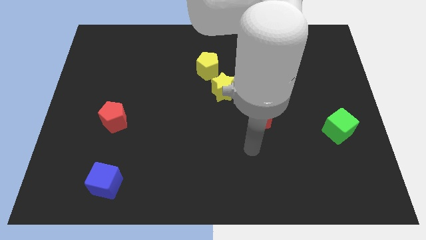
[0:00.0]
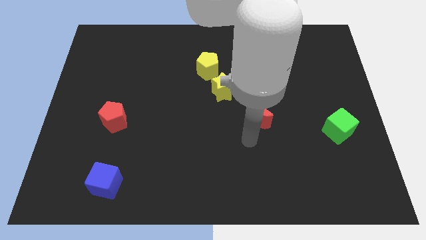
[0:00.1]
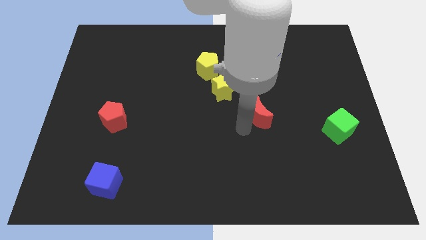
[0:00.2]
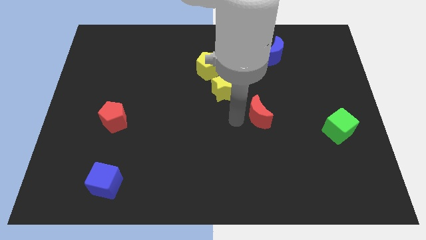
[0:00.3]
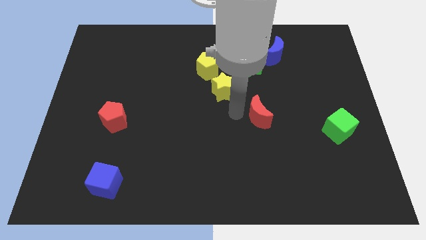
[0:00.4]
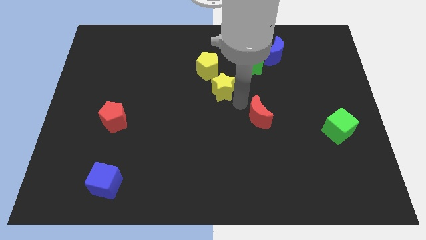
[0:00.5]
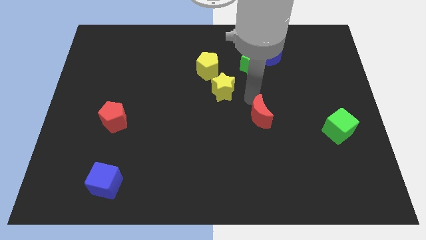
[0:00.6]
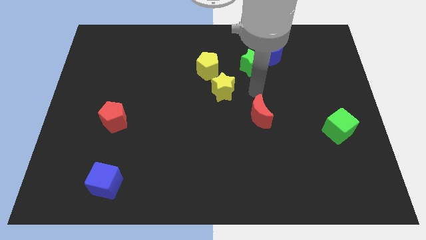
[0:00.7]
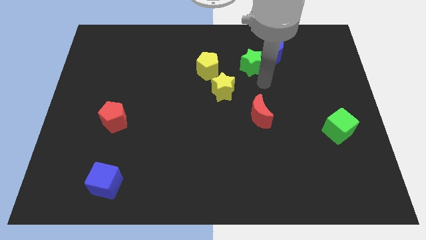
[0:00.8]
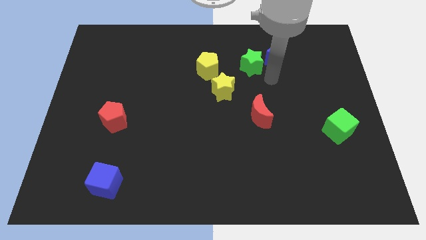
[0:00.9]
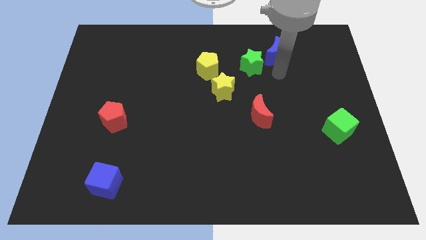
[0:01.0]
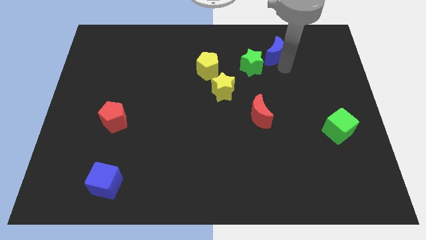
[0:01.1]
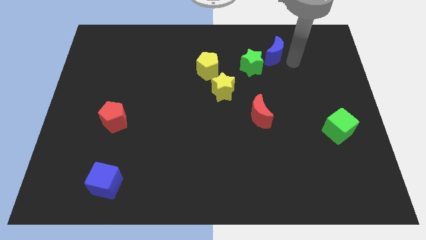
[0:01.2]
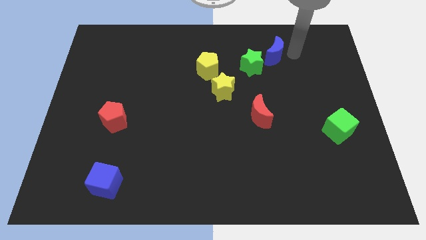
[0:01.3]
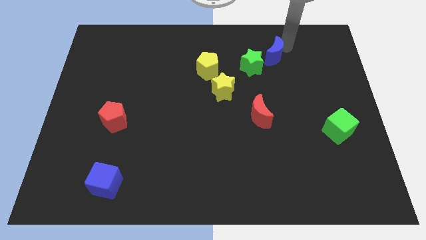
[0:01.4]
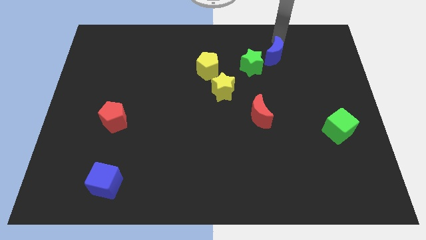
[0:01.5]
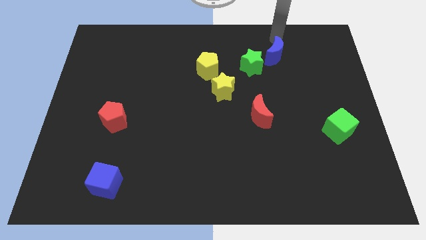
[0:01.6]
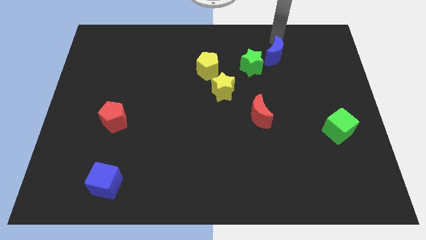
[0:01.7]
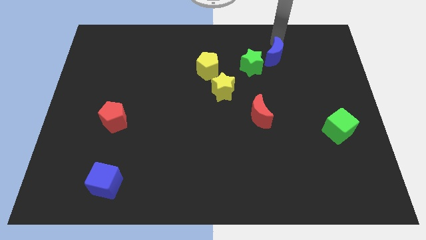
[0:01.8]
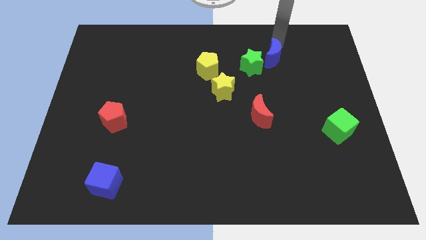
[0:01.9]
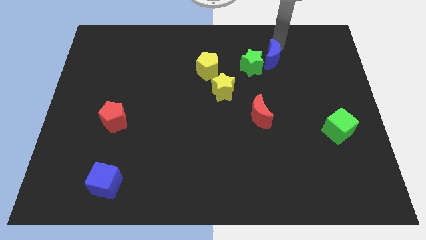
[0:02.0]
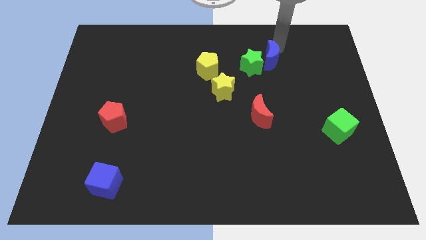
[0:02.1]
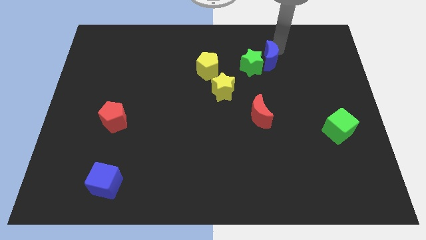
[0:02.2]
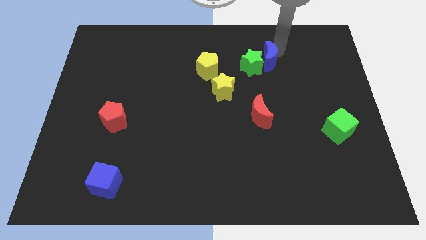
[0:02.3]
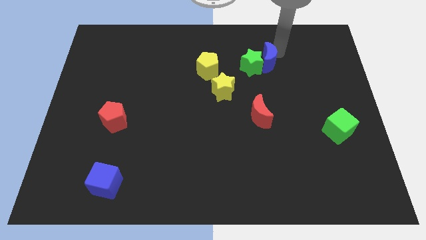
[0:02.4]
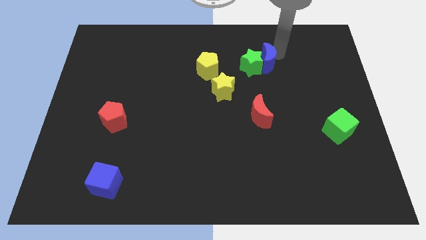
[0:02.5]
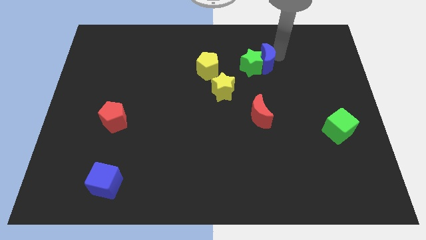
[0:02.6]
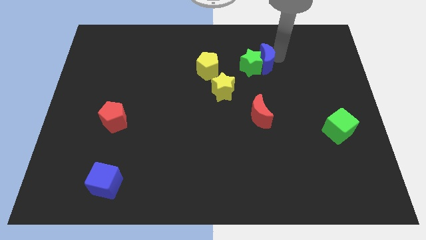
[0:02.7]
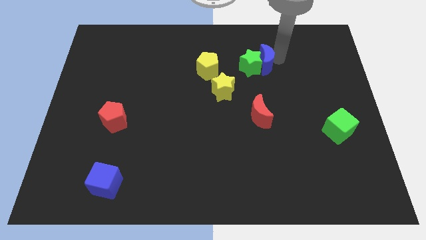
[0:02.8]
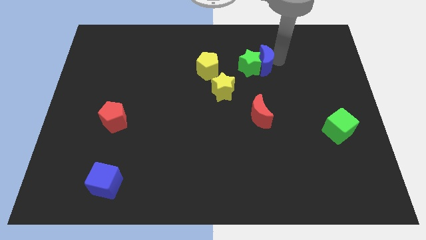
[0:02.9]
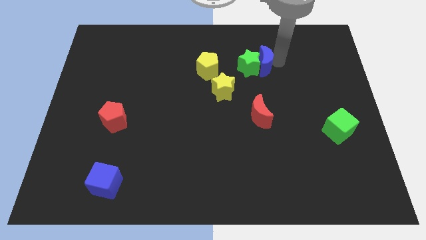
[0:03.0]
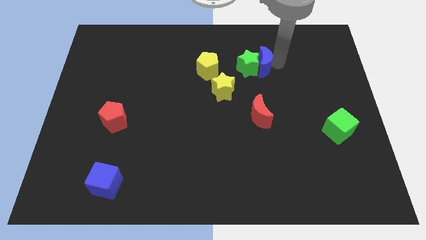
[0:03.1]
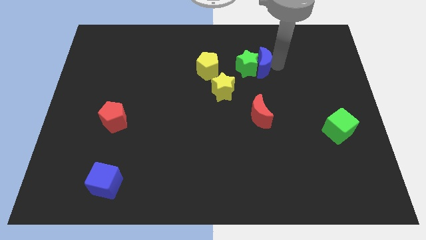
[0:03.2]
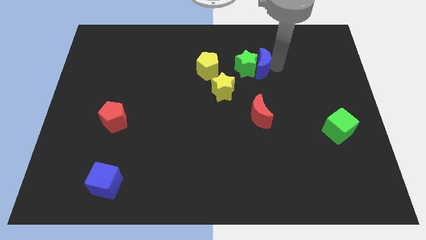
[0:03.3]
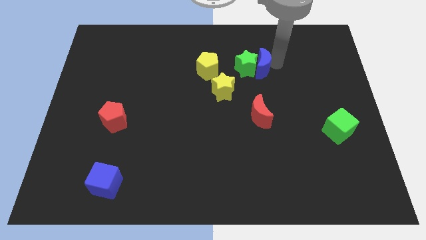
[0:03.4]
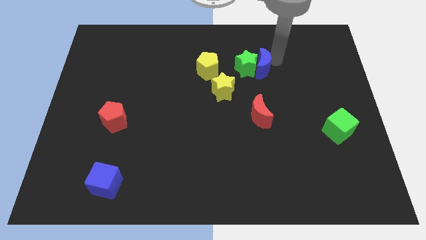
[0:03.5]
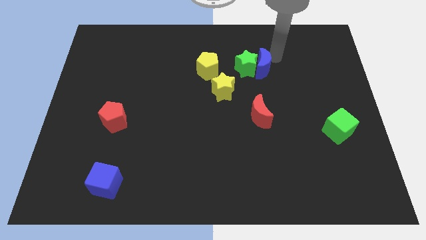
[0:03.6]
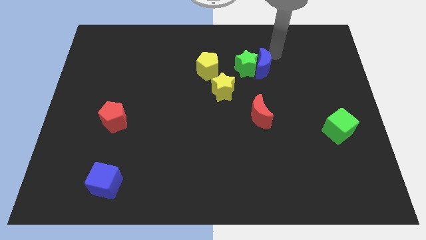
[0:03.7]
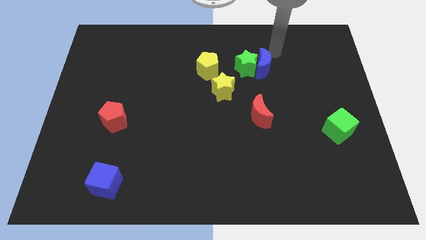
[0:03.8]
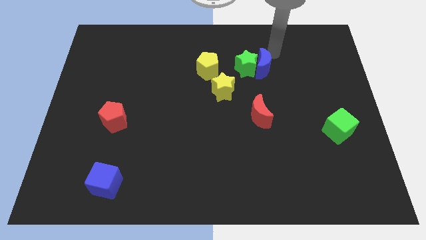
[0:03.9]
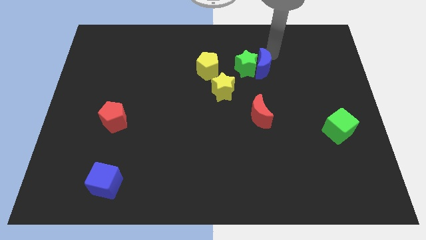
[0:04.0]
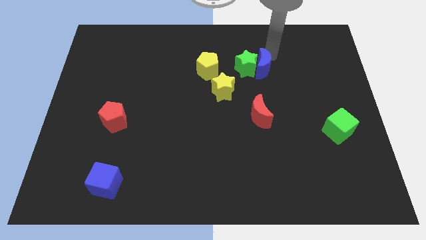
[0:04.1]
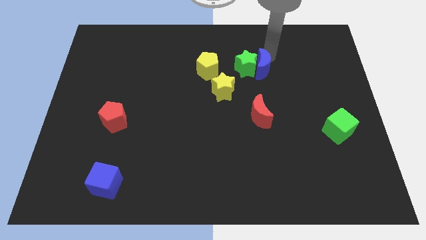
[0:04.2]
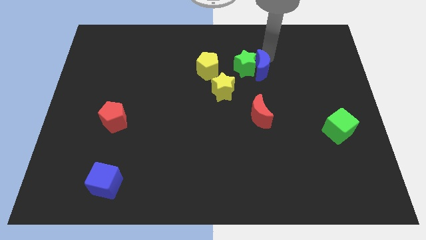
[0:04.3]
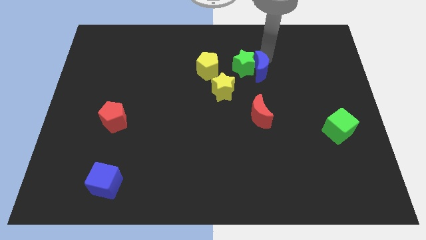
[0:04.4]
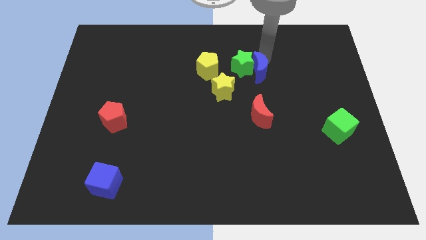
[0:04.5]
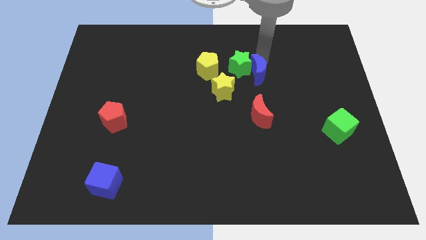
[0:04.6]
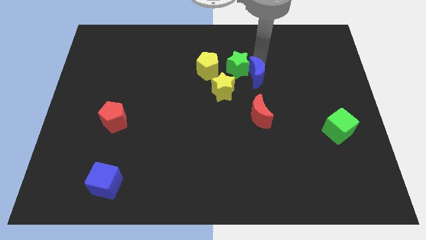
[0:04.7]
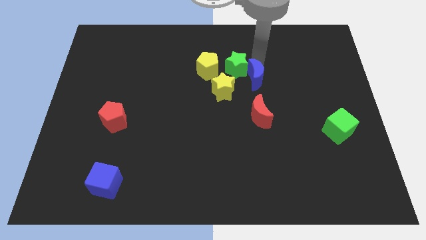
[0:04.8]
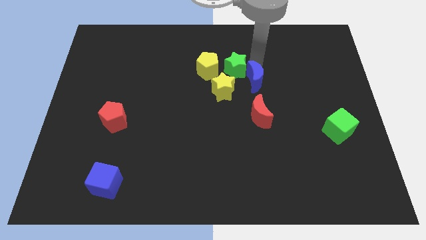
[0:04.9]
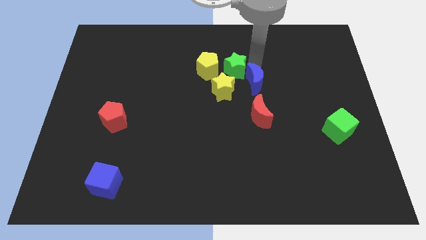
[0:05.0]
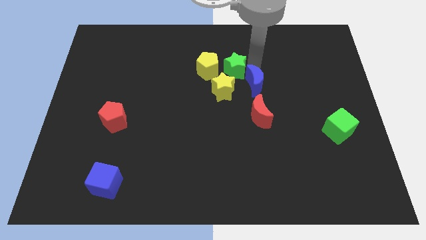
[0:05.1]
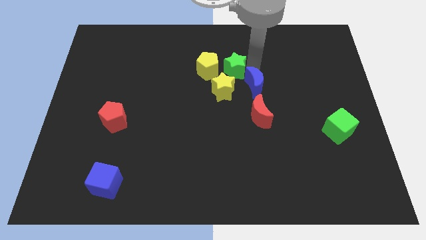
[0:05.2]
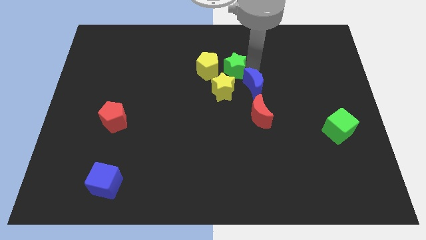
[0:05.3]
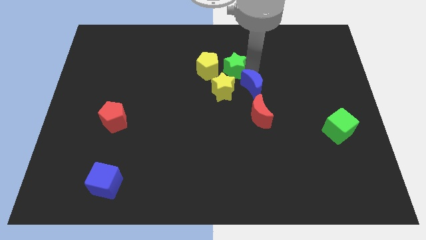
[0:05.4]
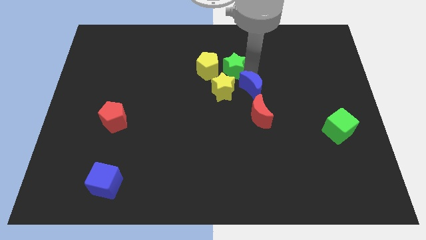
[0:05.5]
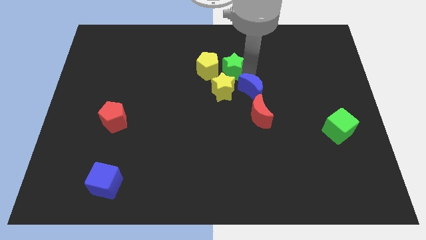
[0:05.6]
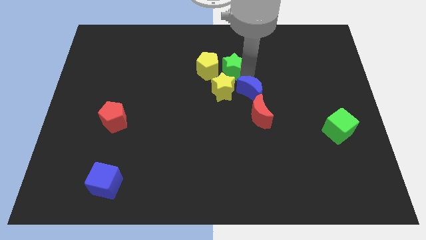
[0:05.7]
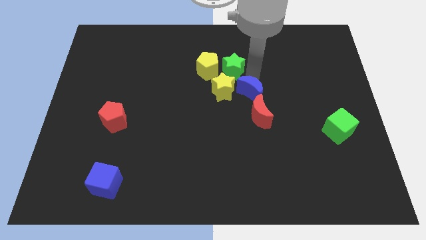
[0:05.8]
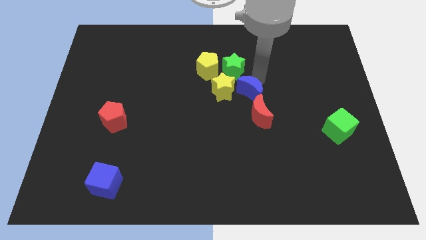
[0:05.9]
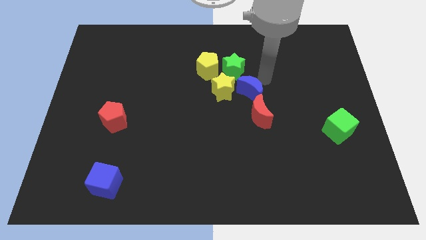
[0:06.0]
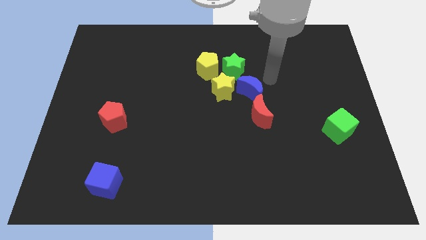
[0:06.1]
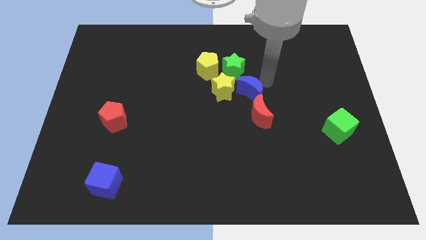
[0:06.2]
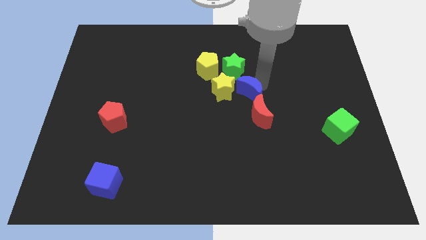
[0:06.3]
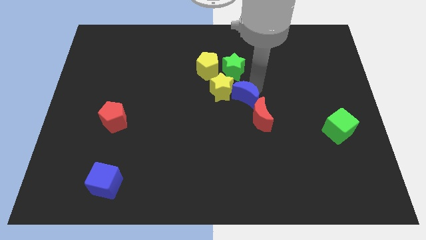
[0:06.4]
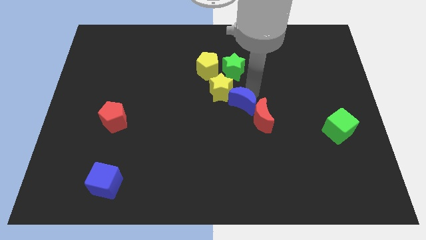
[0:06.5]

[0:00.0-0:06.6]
slide the blue moon to the left of the red moon

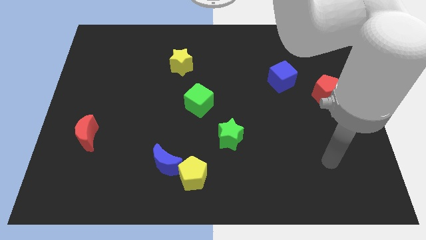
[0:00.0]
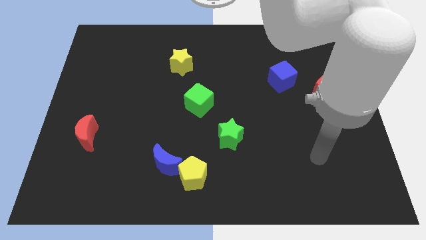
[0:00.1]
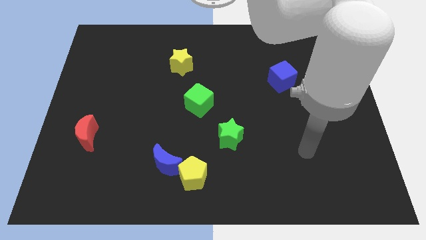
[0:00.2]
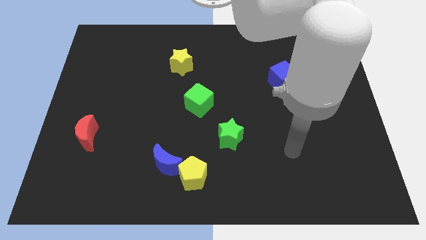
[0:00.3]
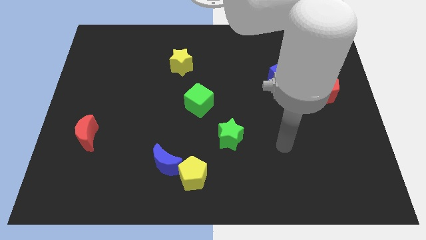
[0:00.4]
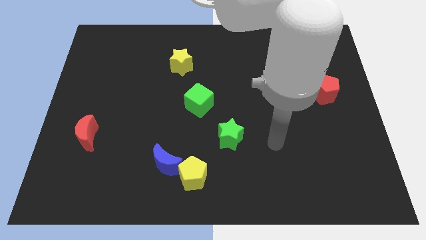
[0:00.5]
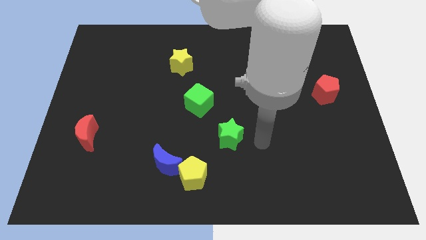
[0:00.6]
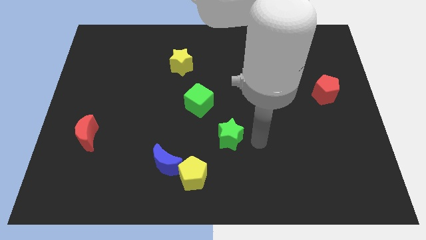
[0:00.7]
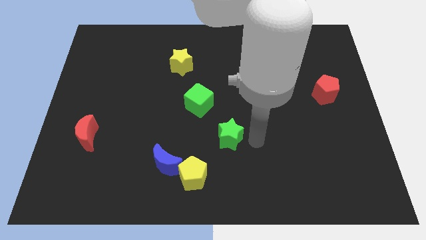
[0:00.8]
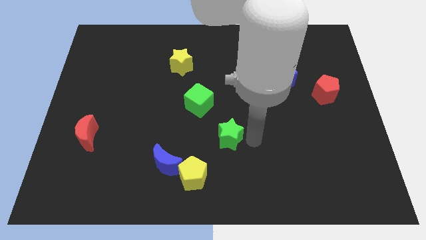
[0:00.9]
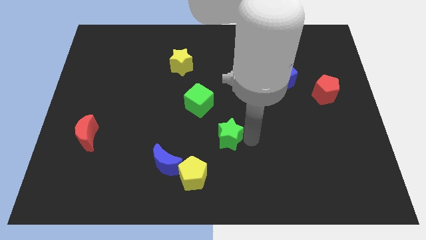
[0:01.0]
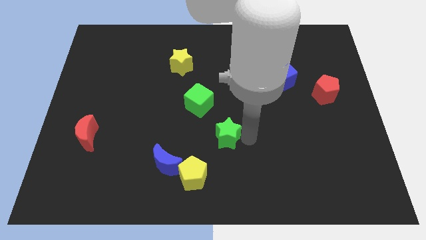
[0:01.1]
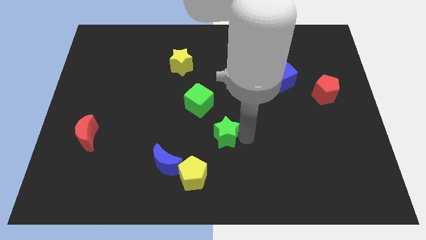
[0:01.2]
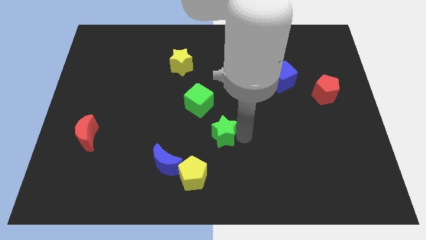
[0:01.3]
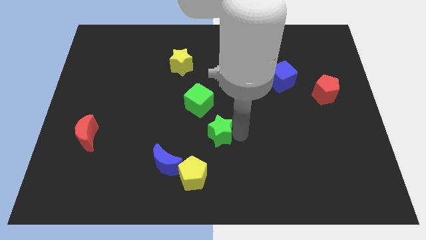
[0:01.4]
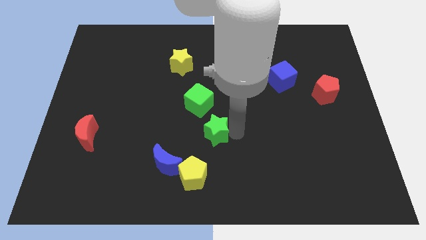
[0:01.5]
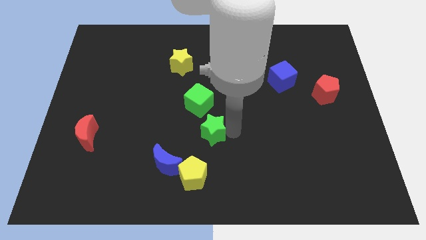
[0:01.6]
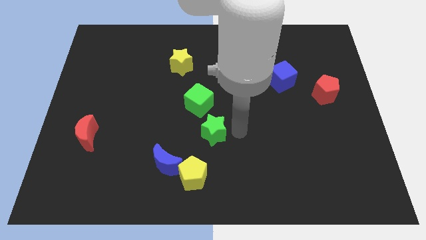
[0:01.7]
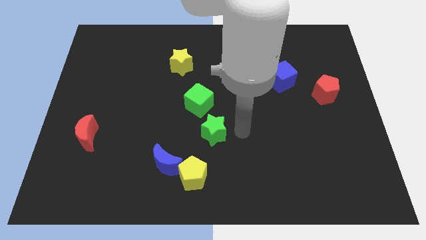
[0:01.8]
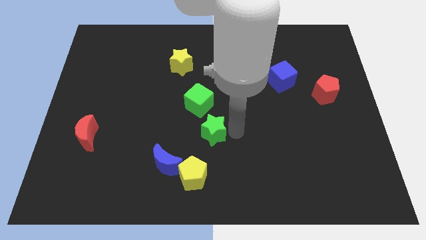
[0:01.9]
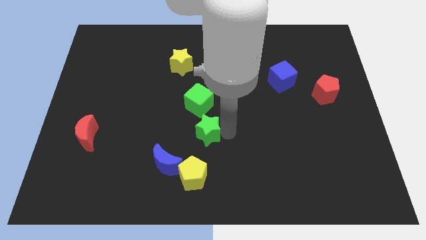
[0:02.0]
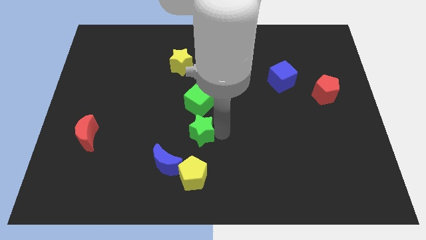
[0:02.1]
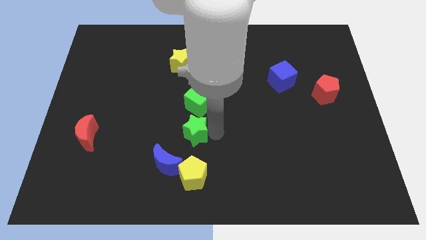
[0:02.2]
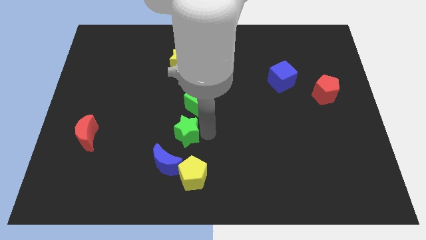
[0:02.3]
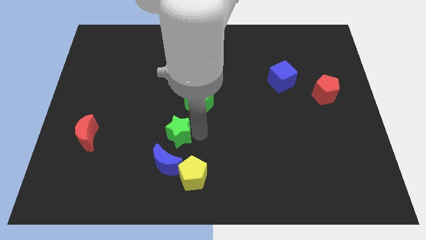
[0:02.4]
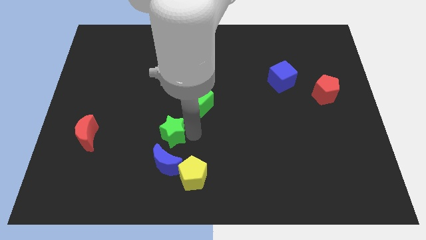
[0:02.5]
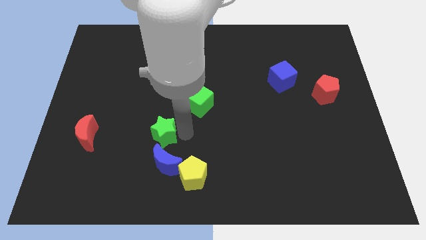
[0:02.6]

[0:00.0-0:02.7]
put the green star to the top left of the blue moon
